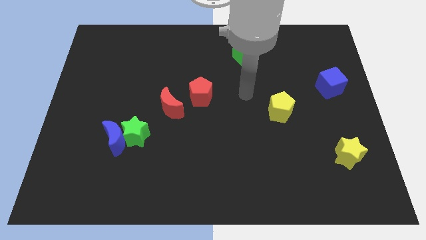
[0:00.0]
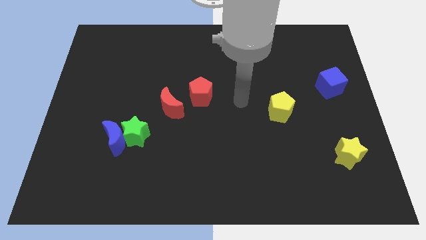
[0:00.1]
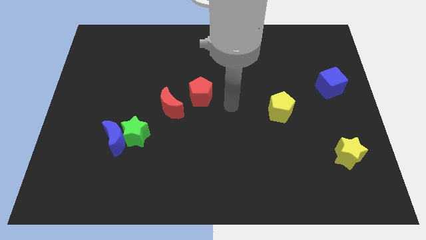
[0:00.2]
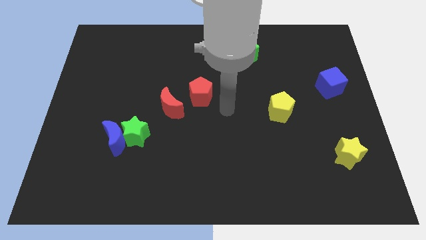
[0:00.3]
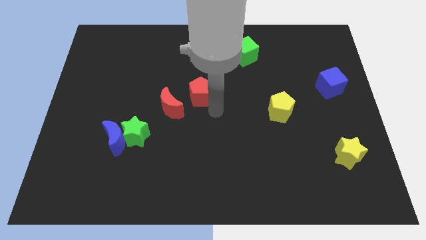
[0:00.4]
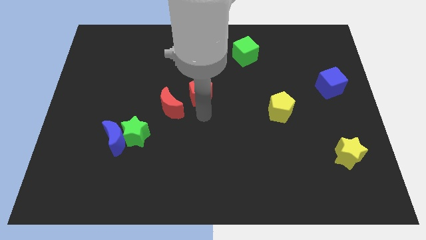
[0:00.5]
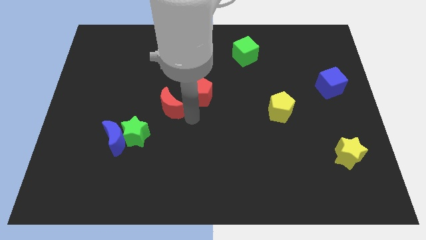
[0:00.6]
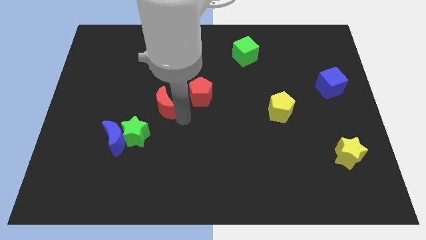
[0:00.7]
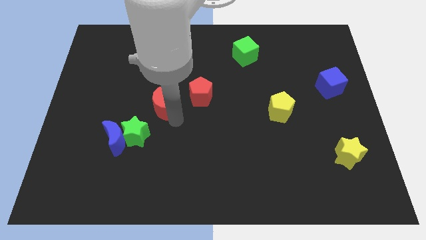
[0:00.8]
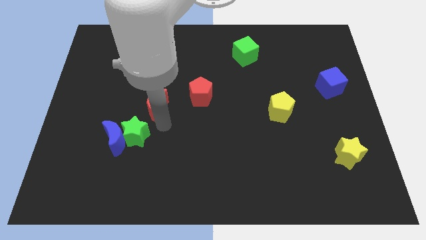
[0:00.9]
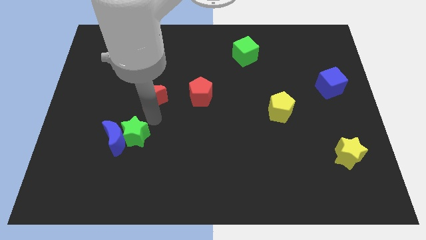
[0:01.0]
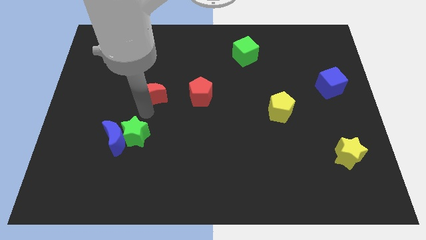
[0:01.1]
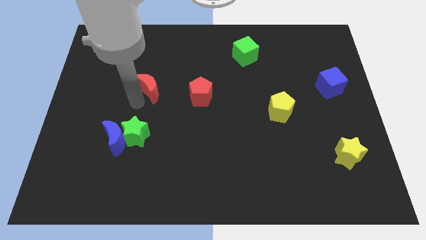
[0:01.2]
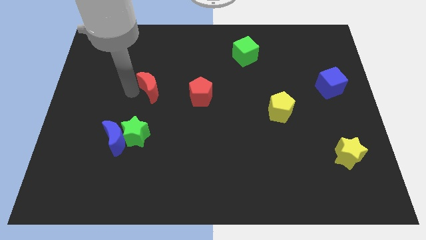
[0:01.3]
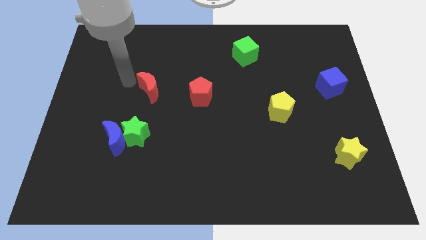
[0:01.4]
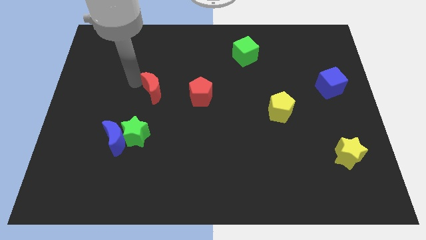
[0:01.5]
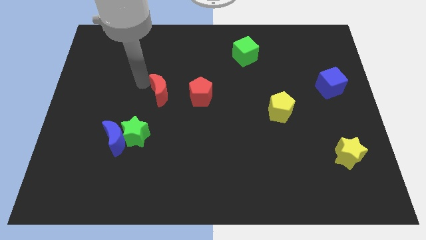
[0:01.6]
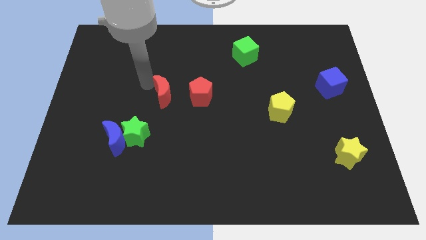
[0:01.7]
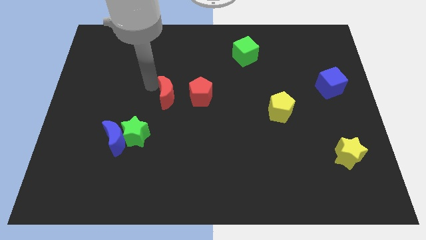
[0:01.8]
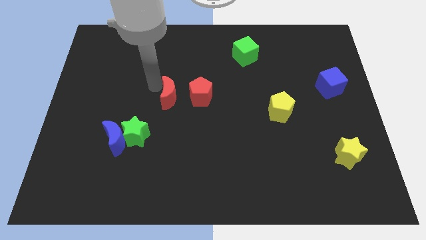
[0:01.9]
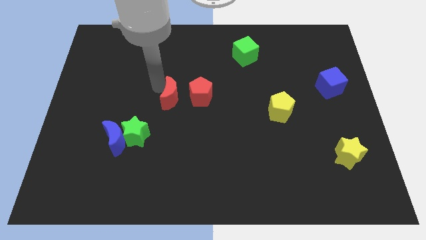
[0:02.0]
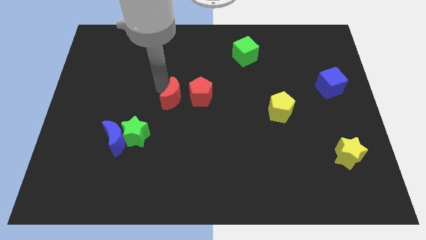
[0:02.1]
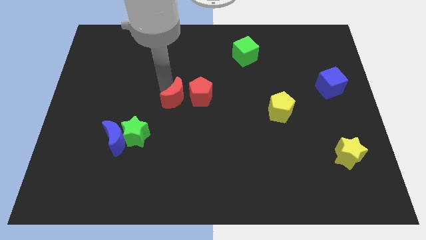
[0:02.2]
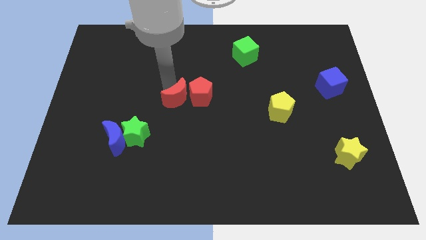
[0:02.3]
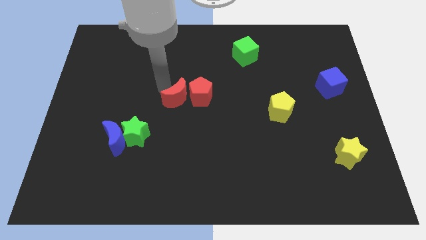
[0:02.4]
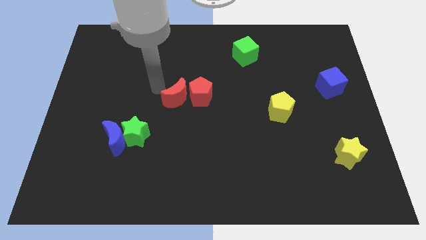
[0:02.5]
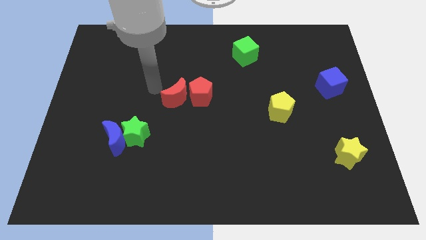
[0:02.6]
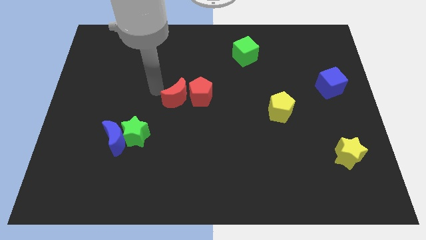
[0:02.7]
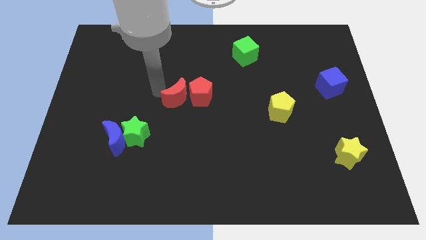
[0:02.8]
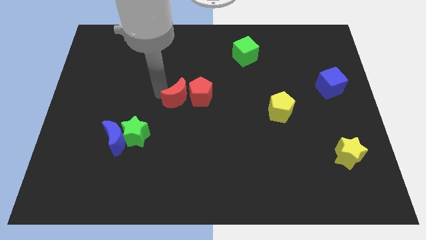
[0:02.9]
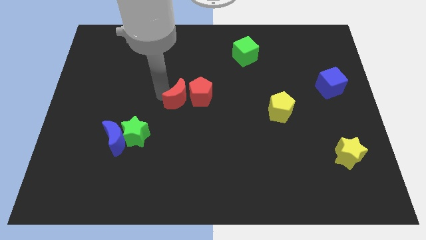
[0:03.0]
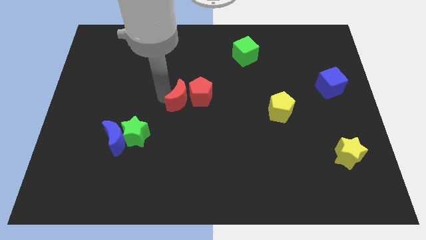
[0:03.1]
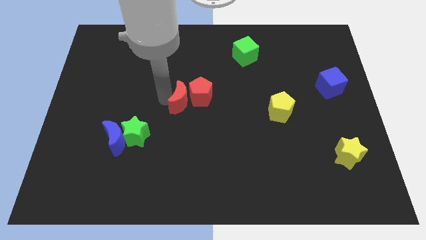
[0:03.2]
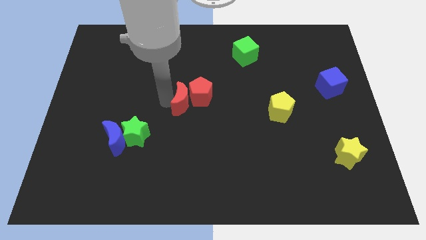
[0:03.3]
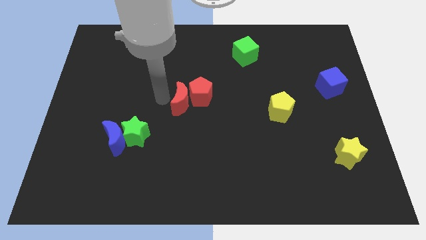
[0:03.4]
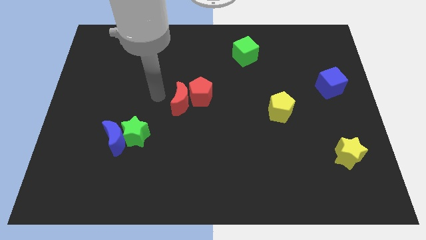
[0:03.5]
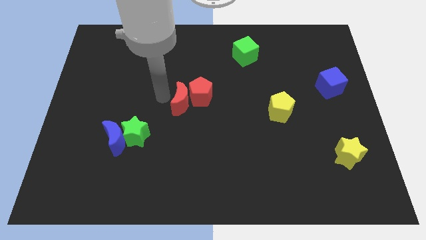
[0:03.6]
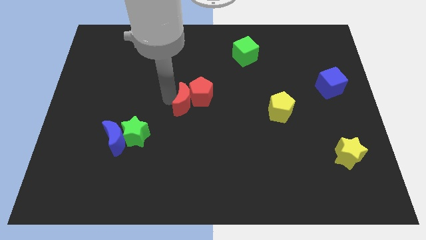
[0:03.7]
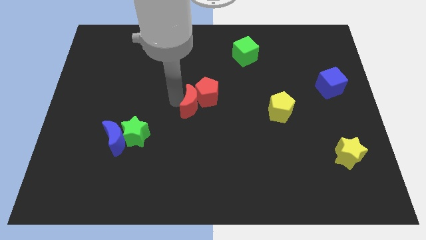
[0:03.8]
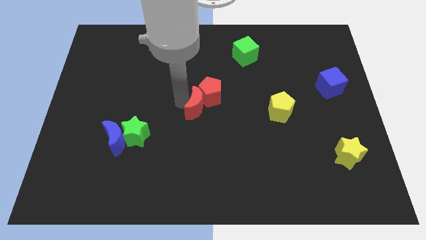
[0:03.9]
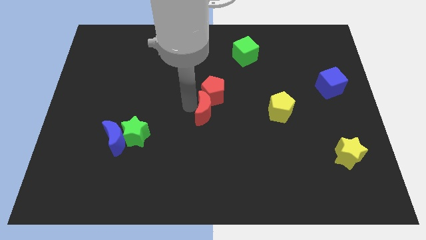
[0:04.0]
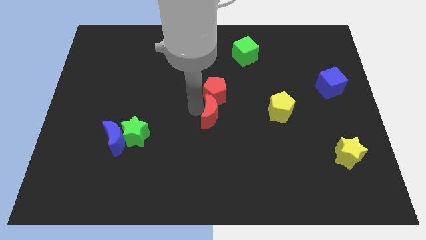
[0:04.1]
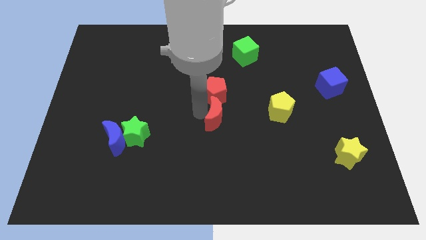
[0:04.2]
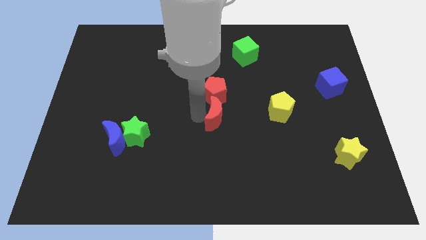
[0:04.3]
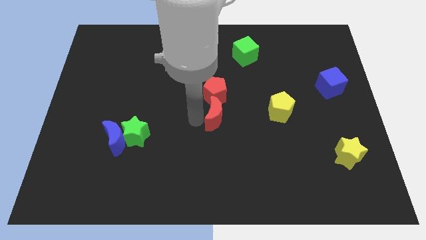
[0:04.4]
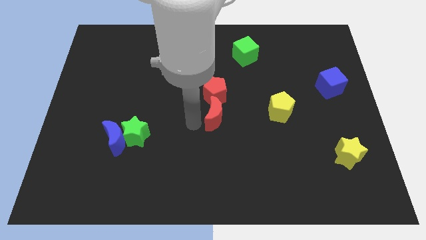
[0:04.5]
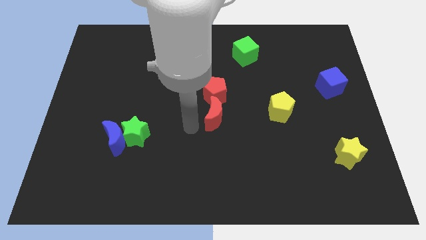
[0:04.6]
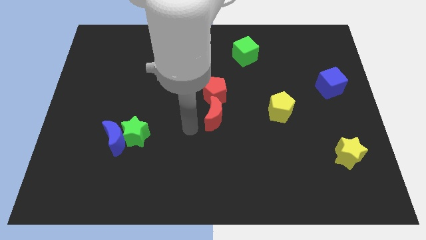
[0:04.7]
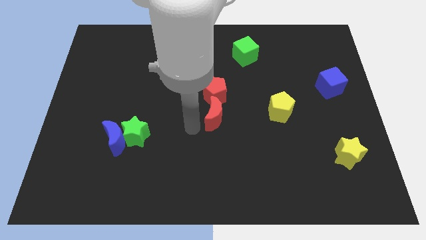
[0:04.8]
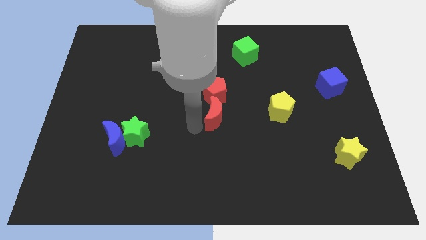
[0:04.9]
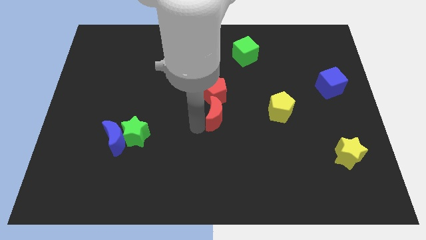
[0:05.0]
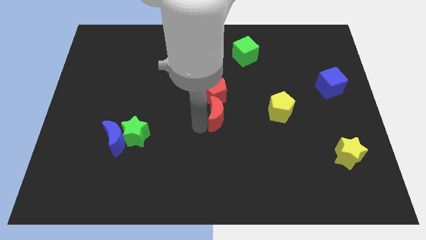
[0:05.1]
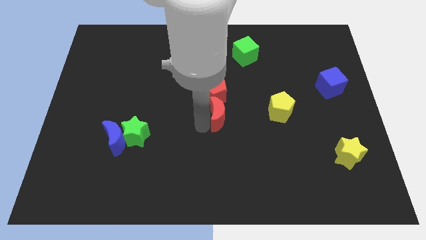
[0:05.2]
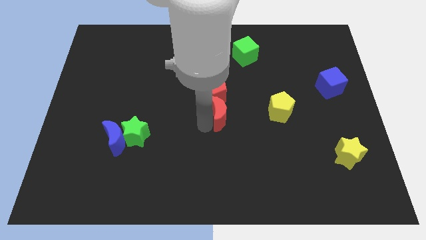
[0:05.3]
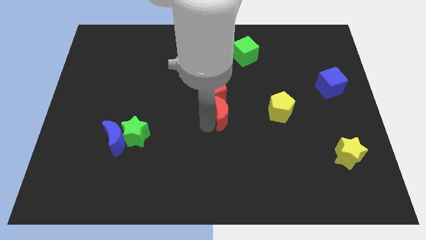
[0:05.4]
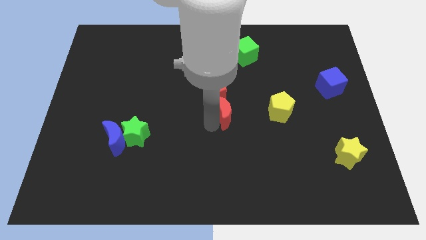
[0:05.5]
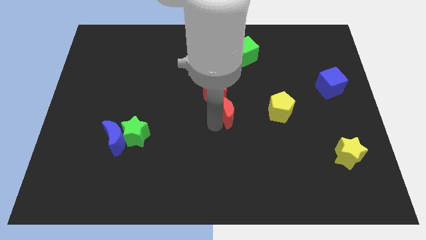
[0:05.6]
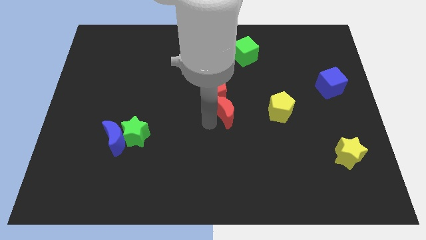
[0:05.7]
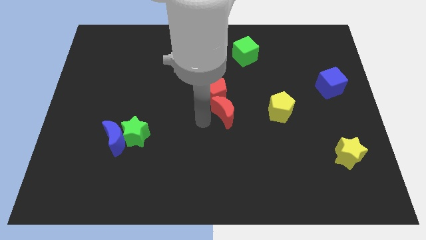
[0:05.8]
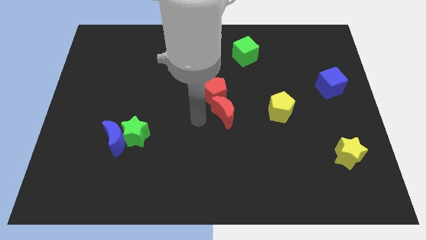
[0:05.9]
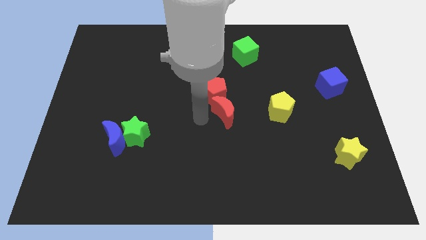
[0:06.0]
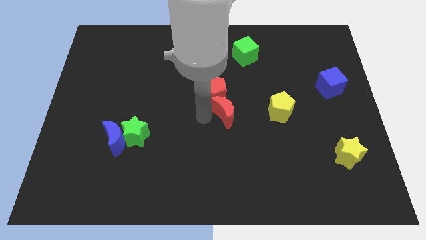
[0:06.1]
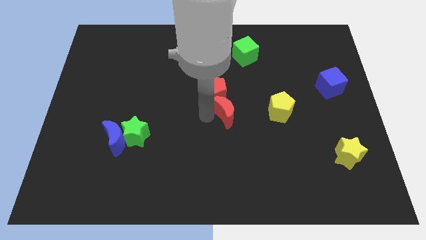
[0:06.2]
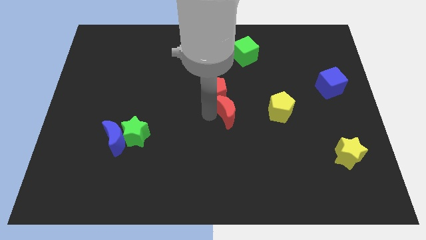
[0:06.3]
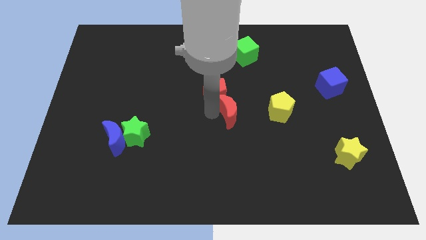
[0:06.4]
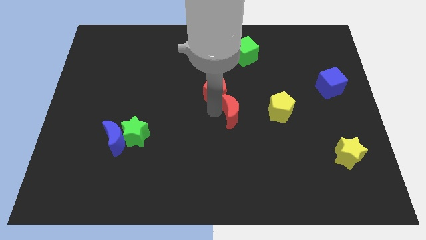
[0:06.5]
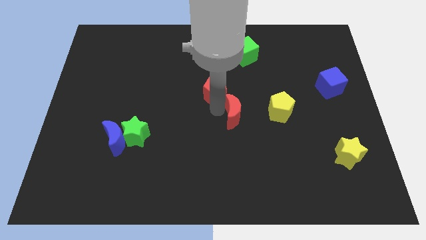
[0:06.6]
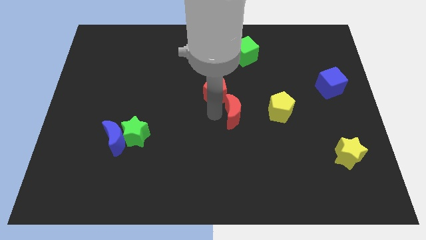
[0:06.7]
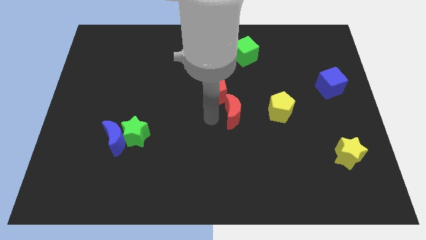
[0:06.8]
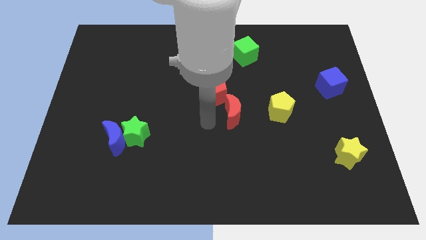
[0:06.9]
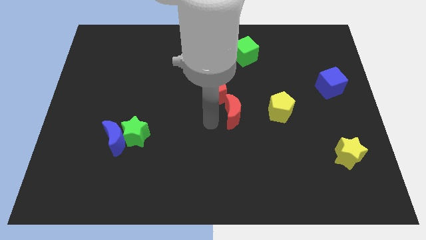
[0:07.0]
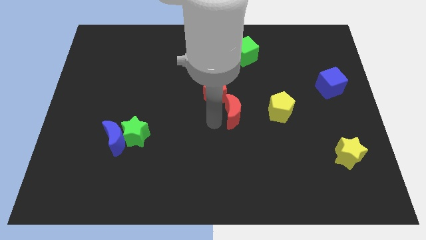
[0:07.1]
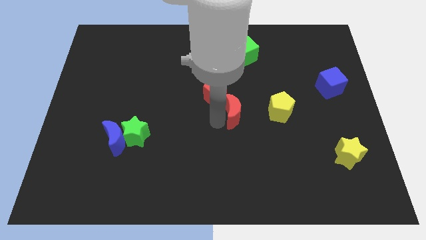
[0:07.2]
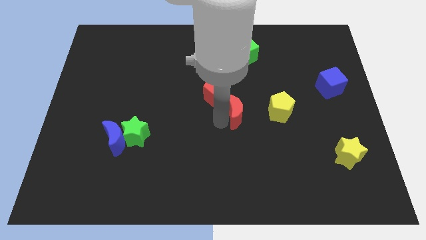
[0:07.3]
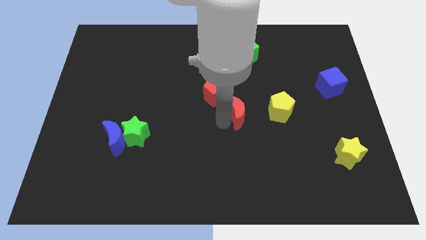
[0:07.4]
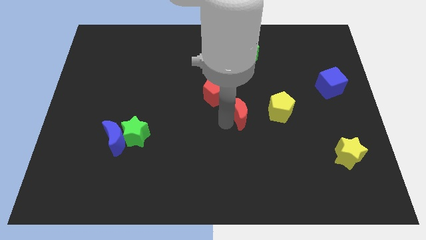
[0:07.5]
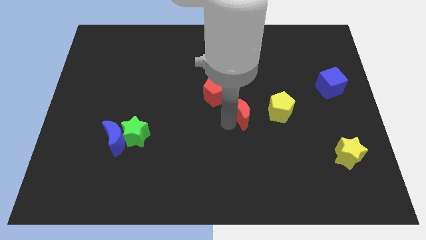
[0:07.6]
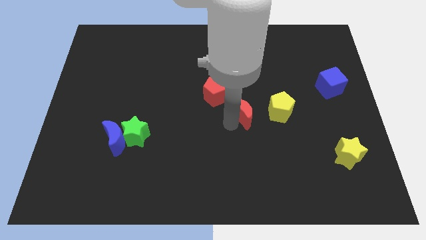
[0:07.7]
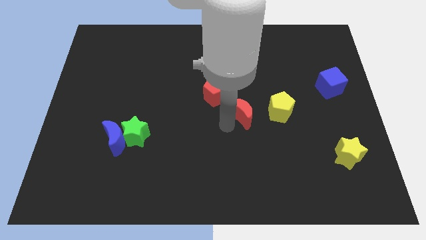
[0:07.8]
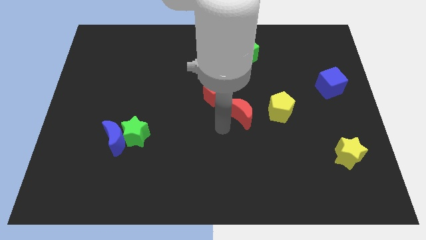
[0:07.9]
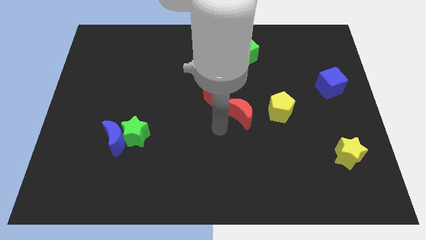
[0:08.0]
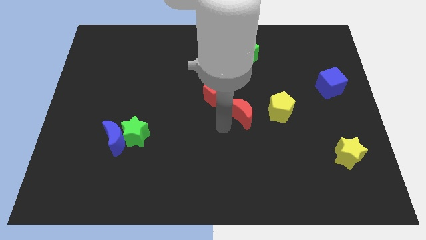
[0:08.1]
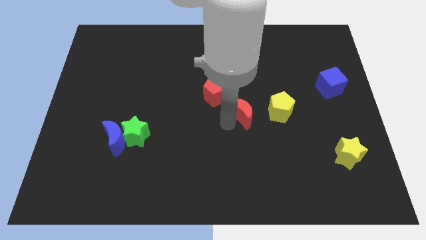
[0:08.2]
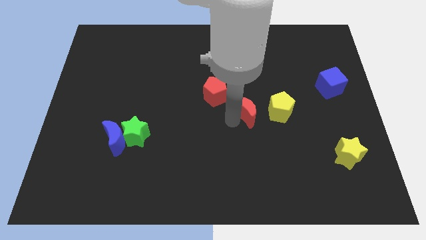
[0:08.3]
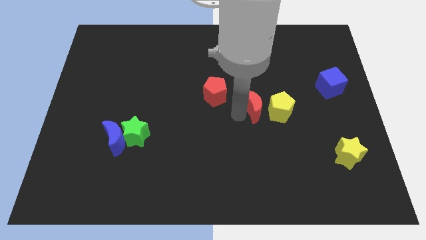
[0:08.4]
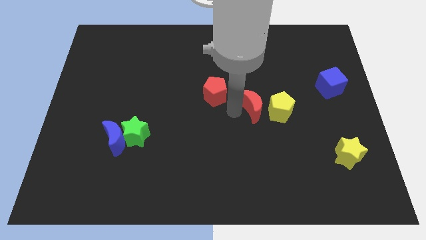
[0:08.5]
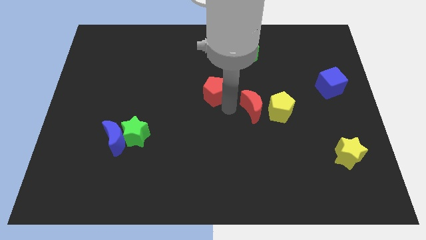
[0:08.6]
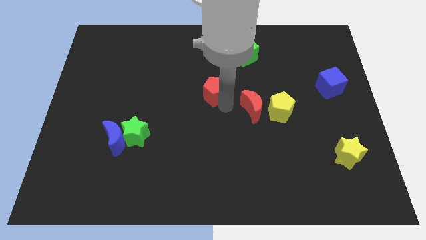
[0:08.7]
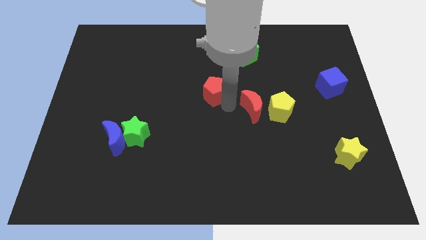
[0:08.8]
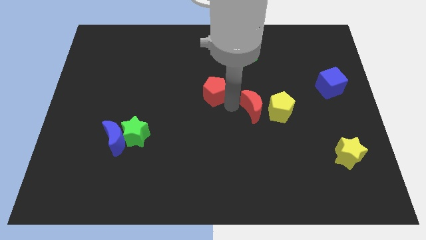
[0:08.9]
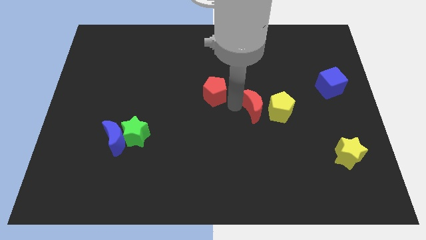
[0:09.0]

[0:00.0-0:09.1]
put the red moon next to the yellow pentagon
